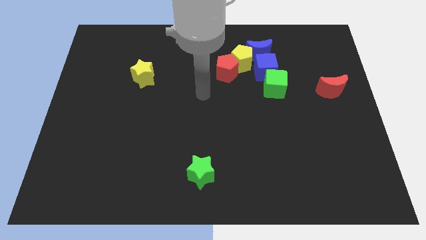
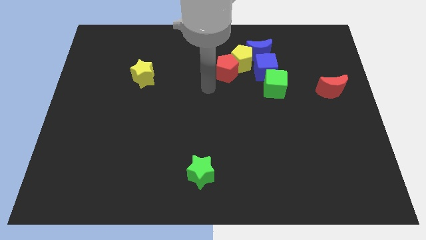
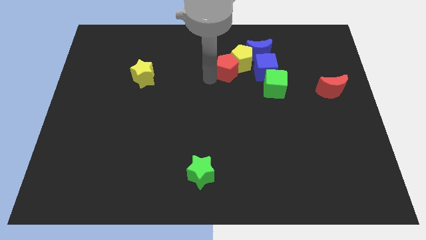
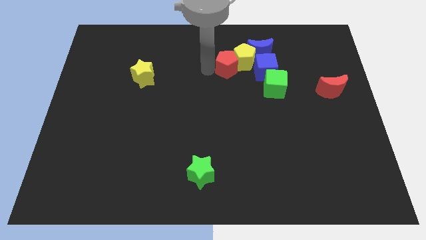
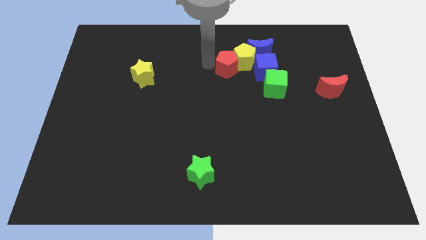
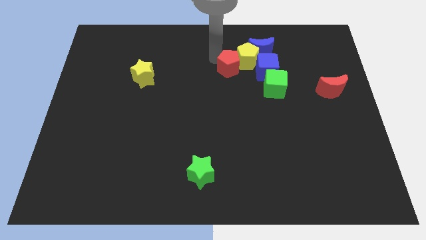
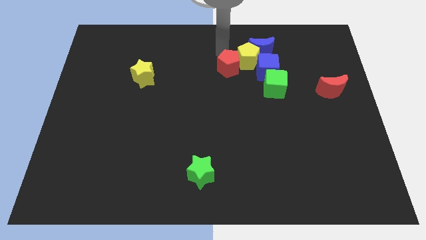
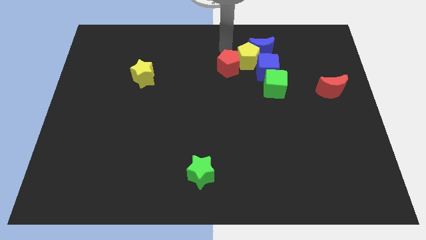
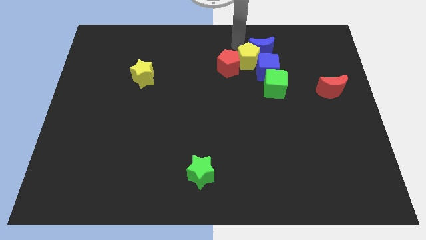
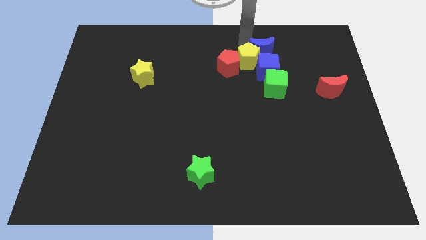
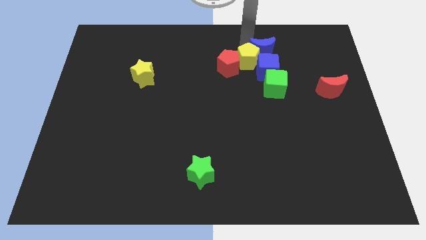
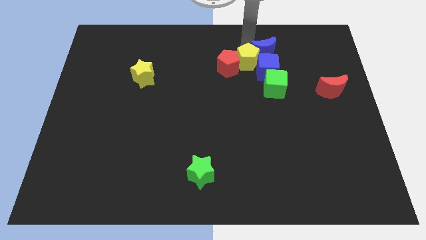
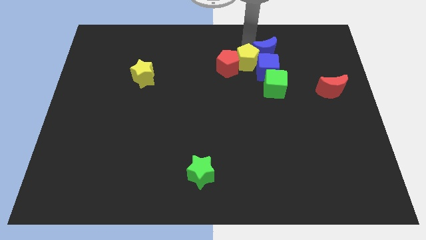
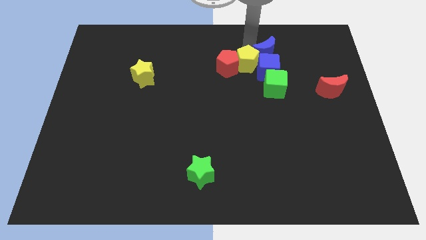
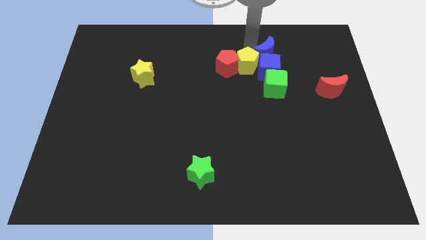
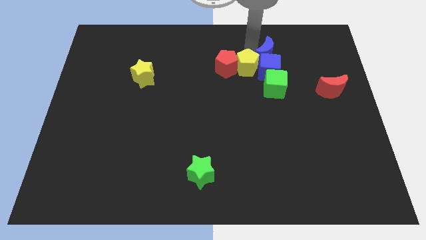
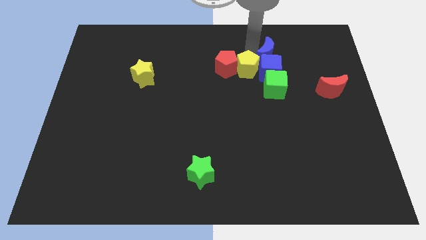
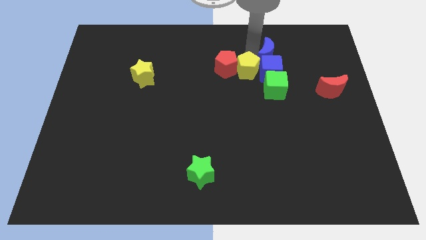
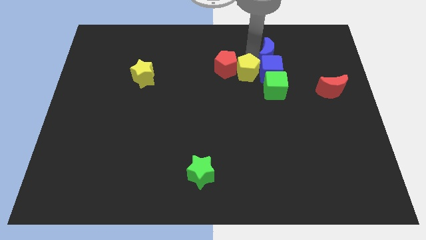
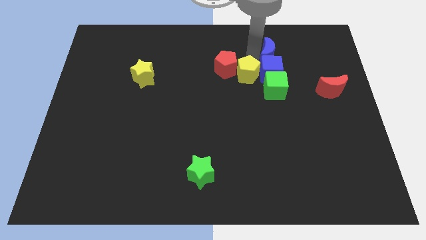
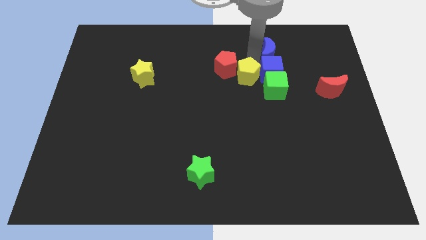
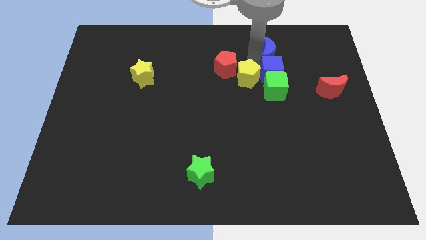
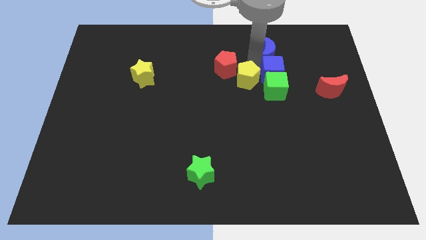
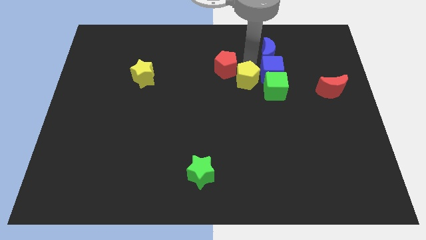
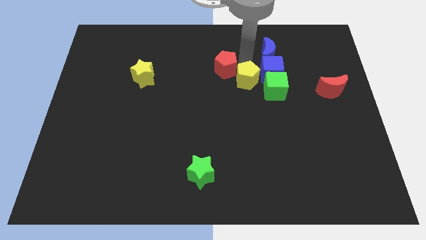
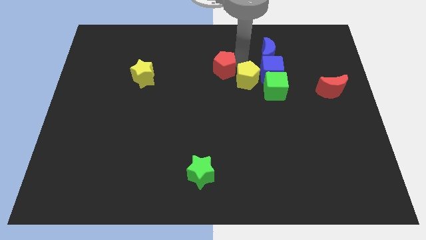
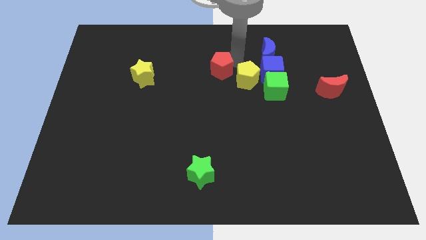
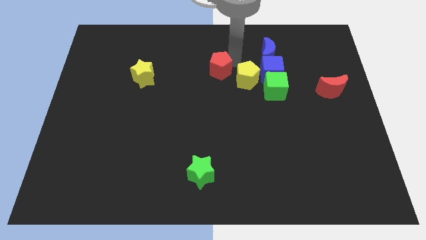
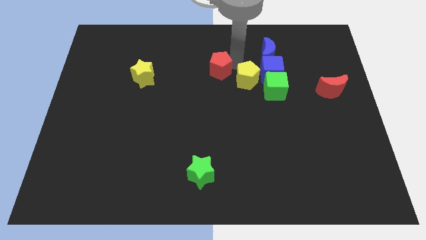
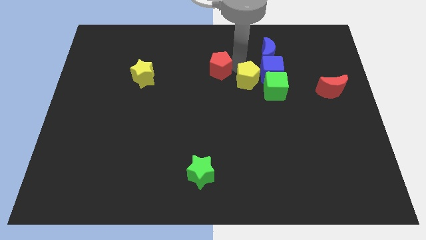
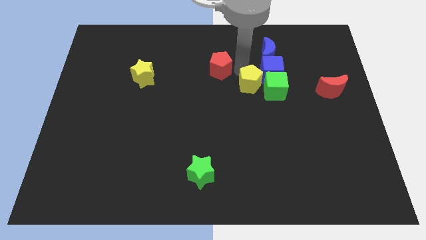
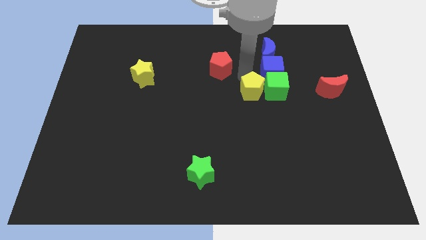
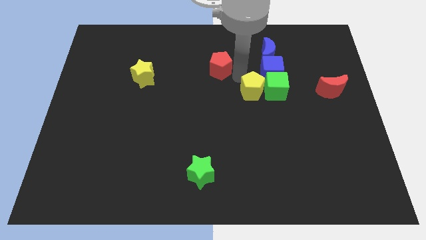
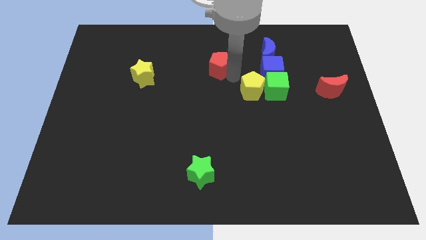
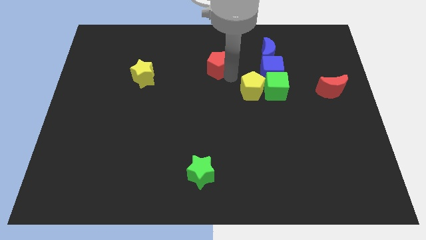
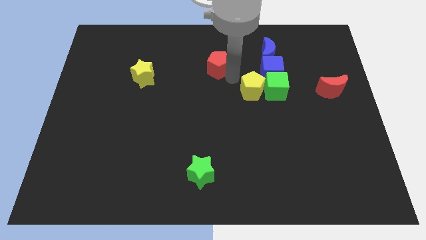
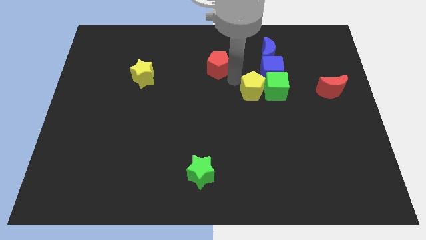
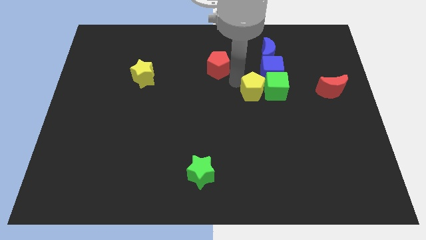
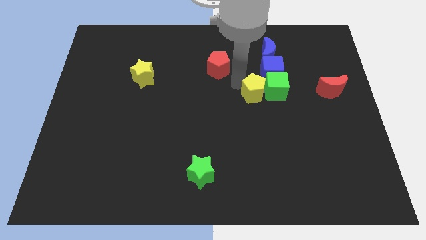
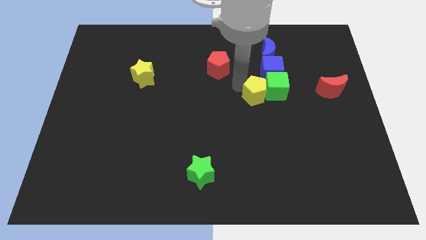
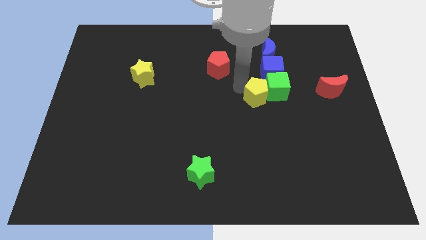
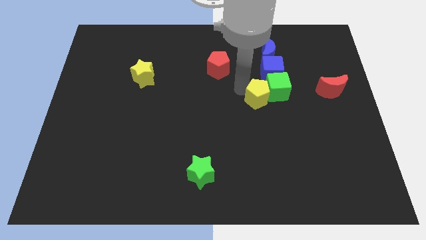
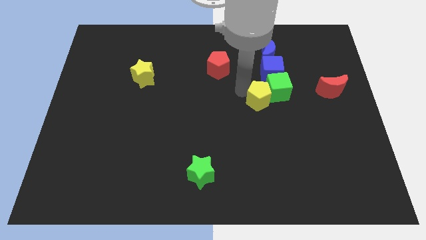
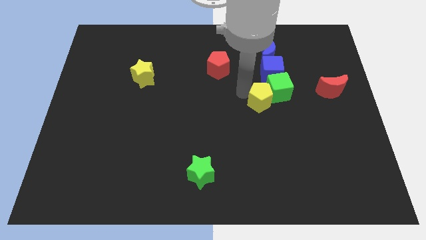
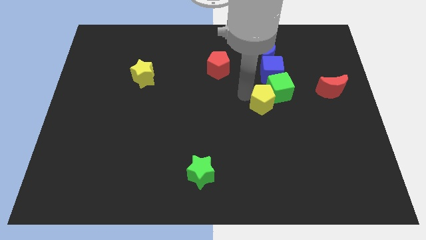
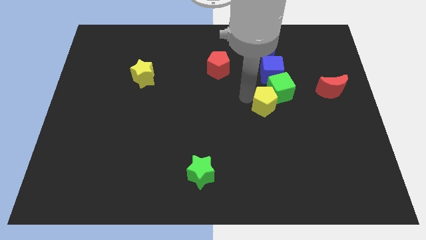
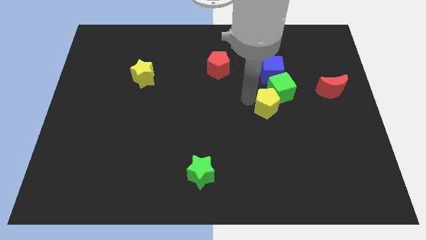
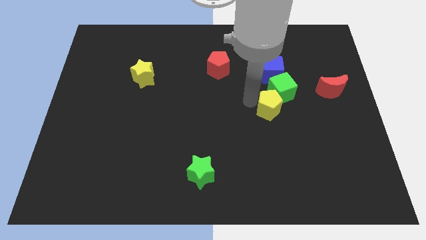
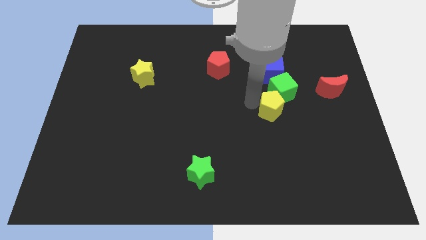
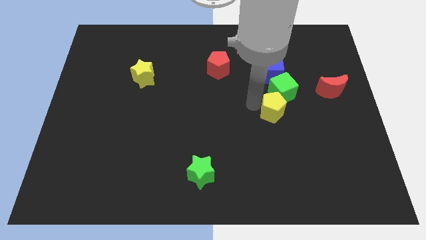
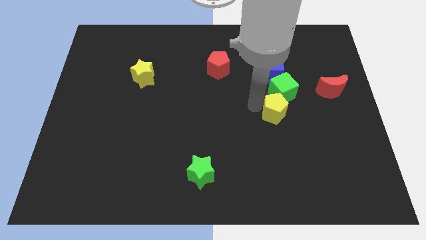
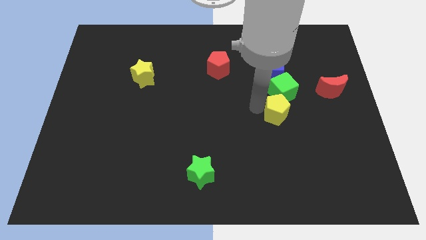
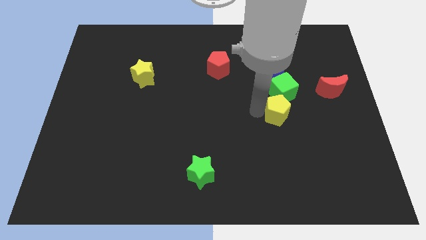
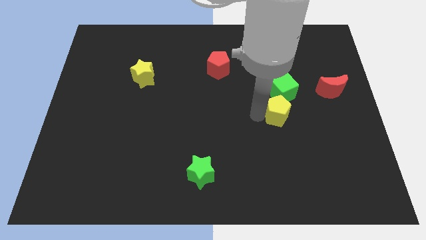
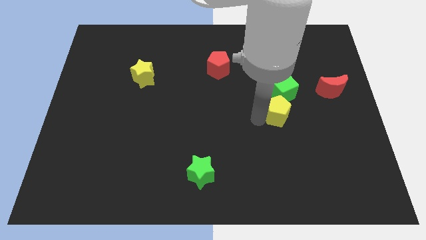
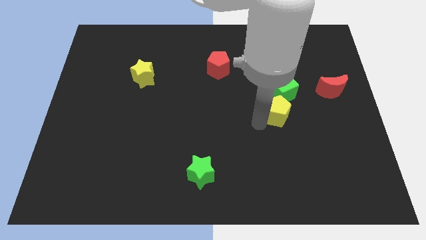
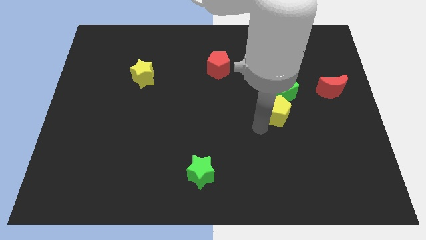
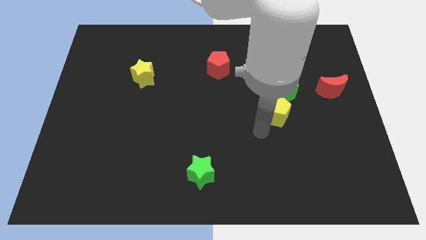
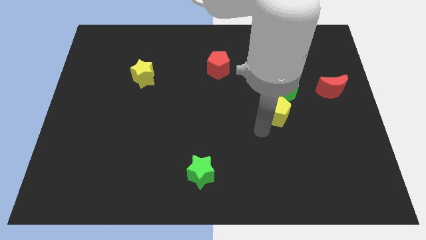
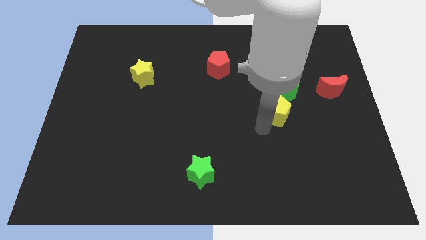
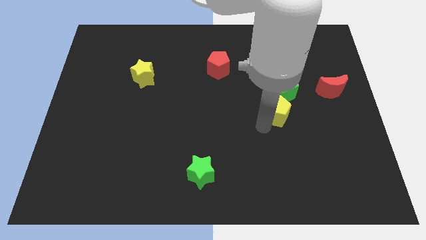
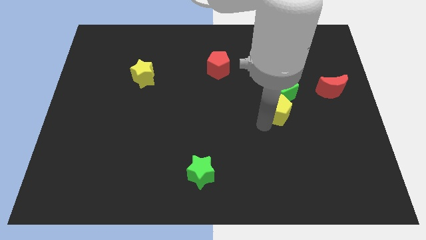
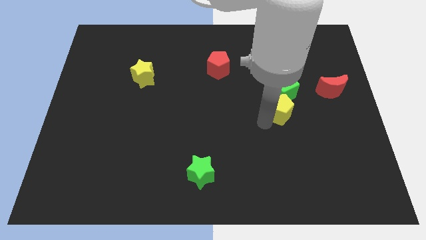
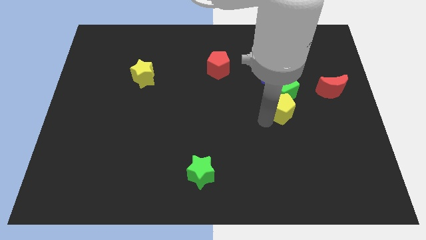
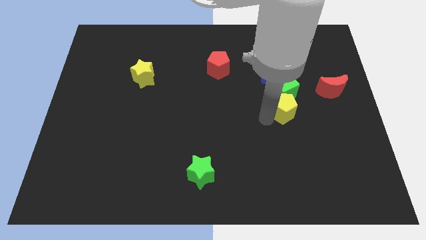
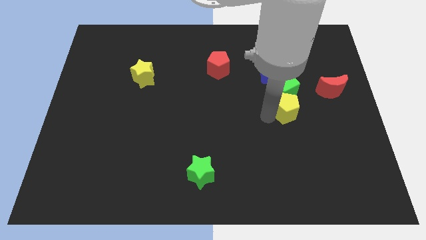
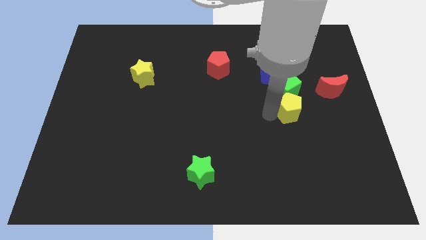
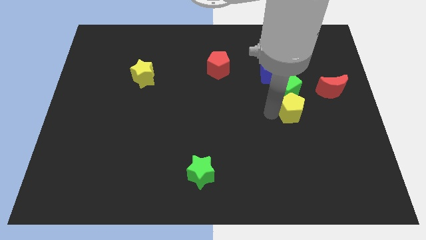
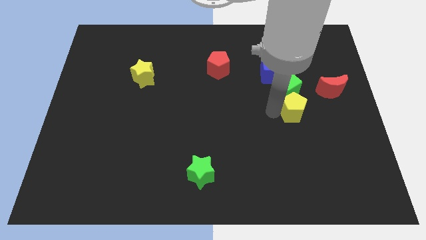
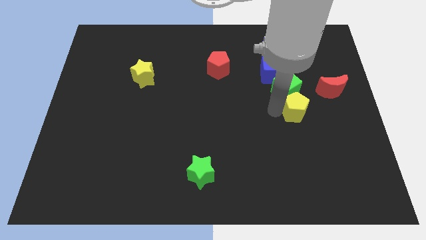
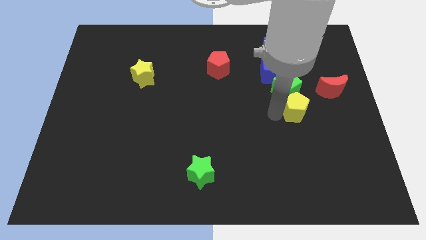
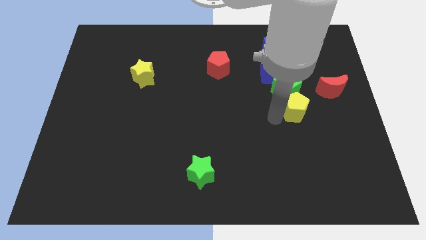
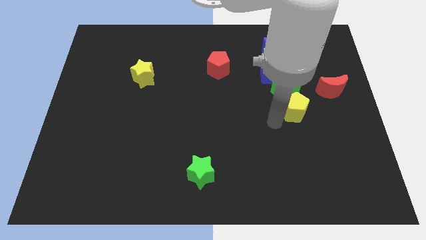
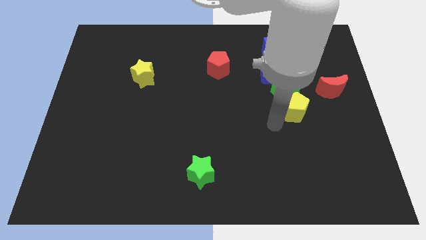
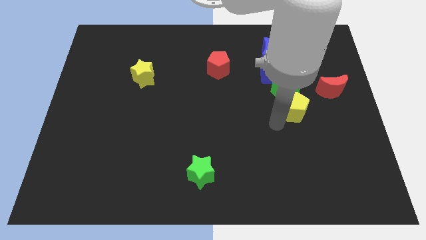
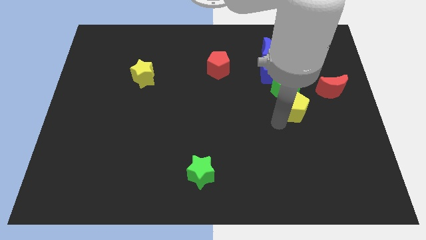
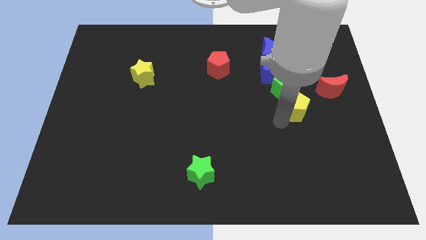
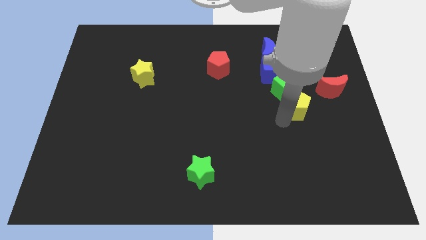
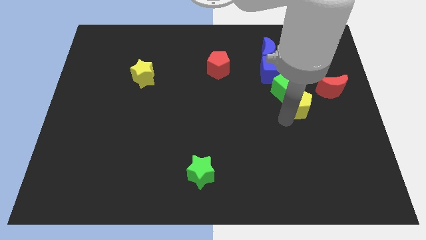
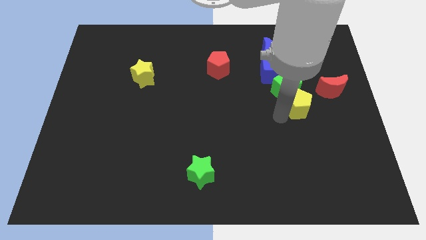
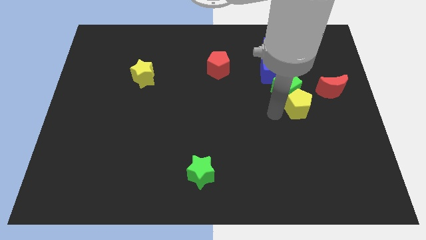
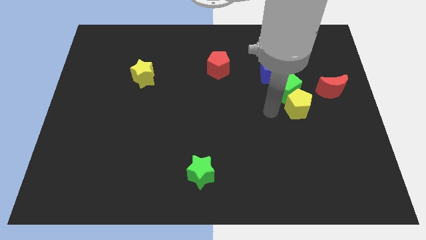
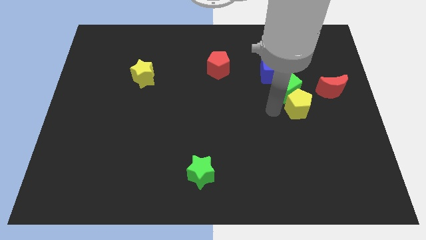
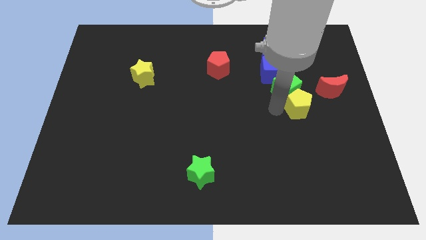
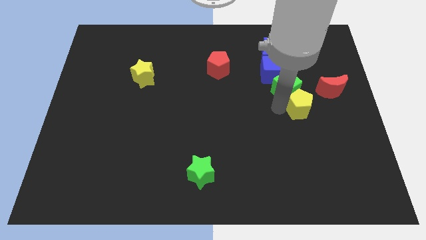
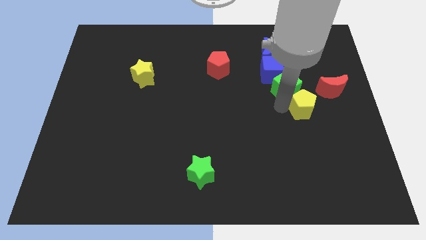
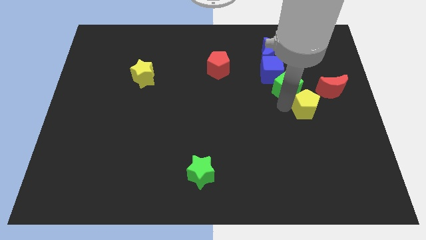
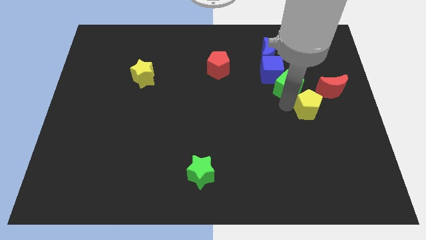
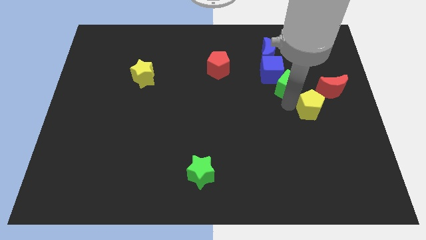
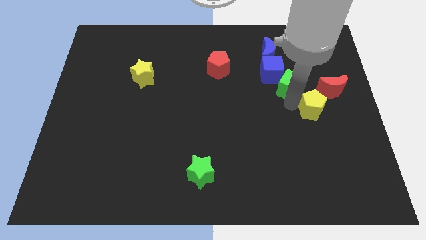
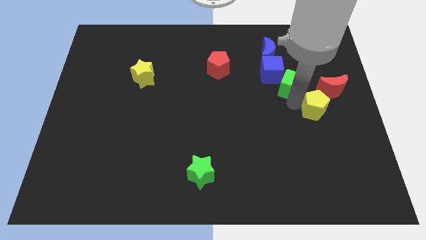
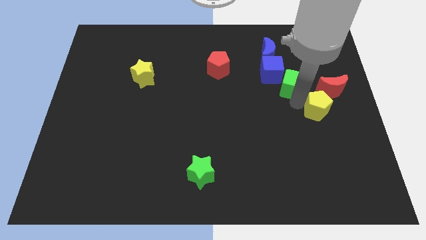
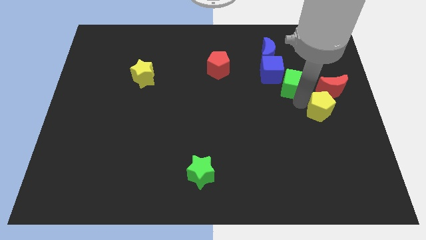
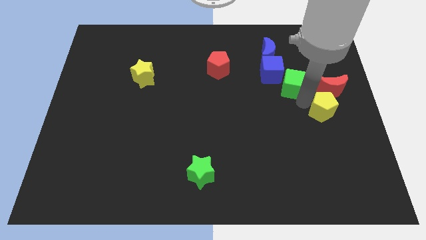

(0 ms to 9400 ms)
put the yellow pentagon to the right side
